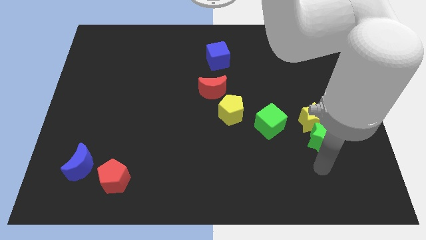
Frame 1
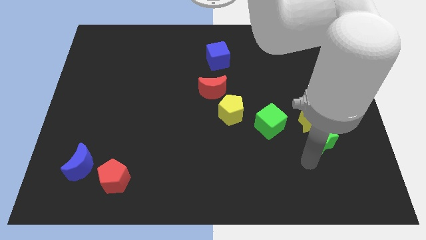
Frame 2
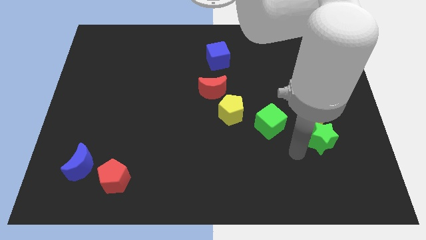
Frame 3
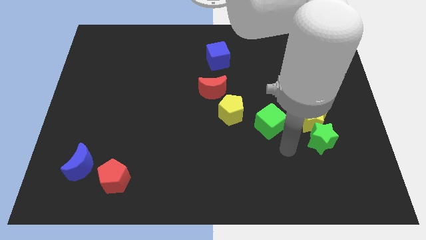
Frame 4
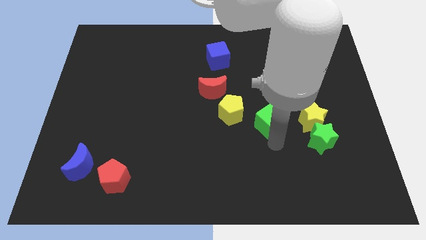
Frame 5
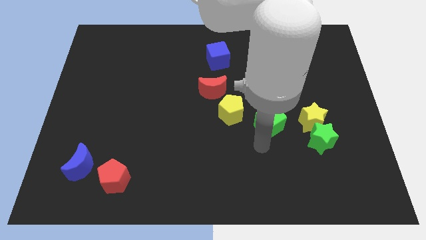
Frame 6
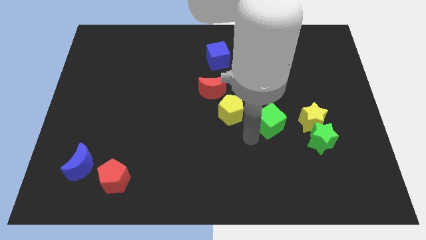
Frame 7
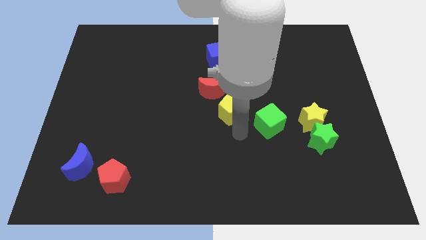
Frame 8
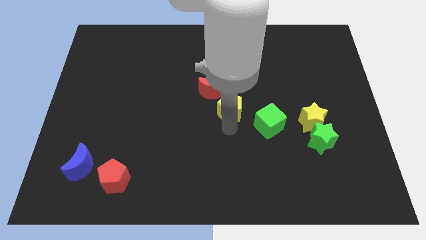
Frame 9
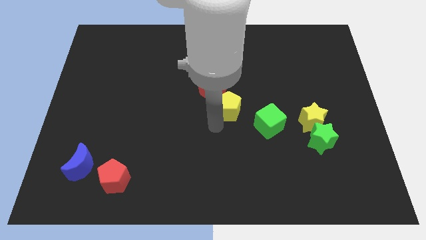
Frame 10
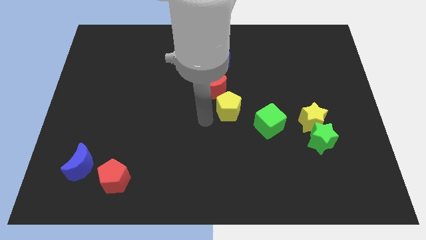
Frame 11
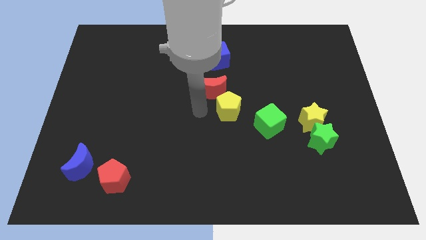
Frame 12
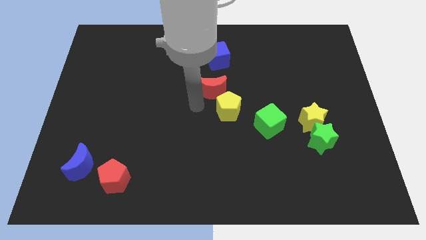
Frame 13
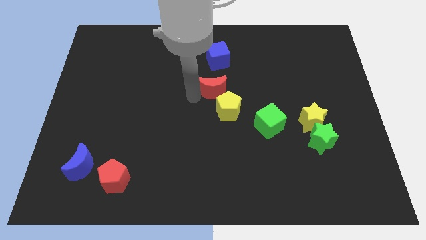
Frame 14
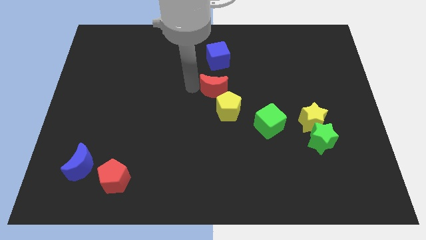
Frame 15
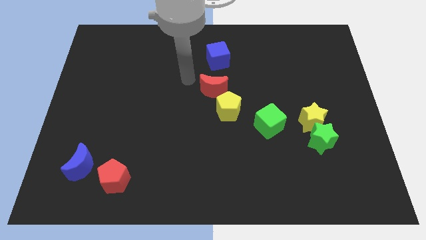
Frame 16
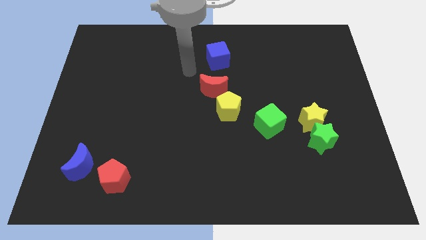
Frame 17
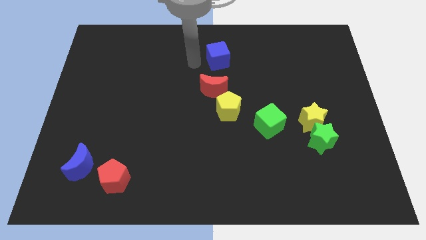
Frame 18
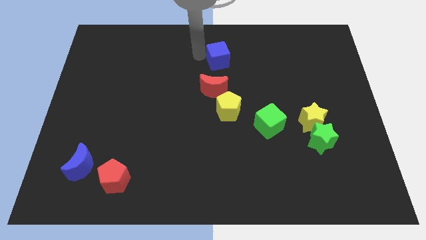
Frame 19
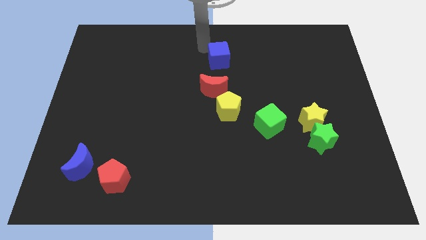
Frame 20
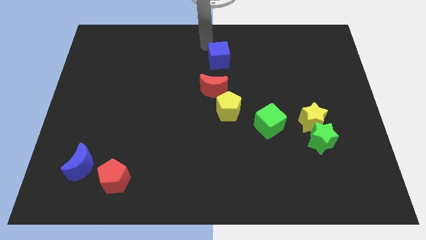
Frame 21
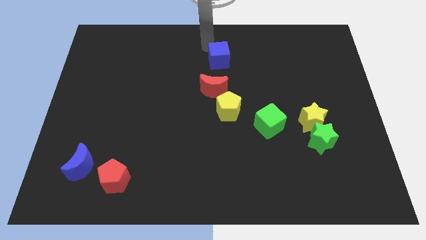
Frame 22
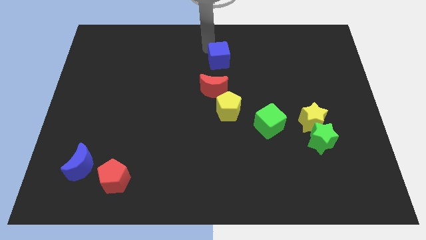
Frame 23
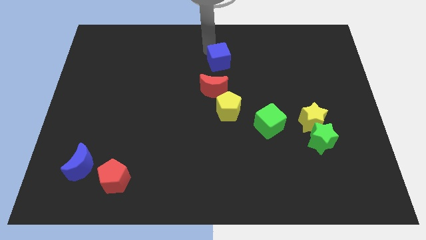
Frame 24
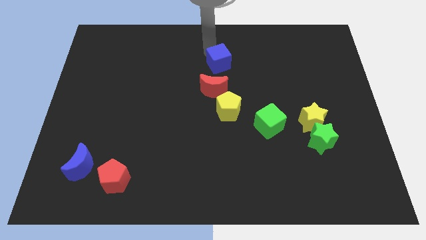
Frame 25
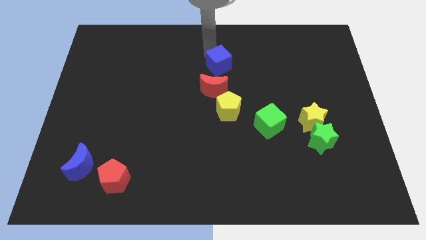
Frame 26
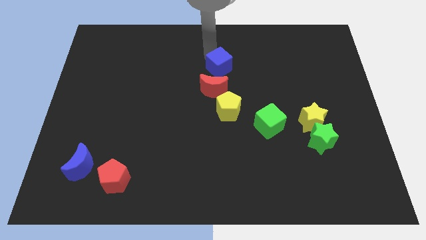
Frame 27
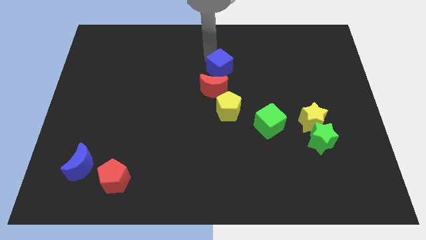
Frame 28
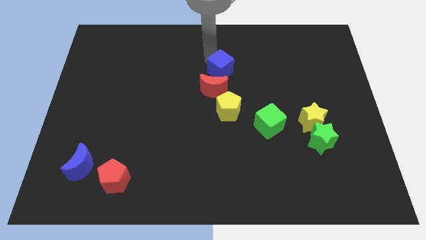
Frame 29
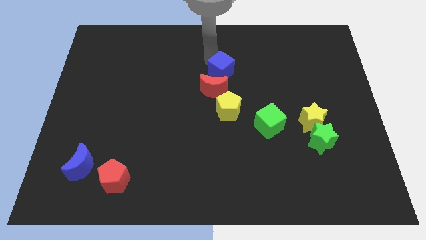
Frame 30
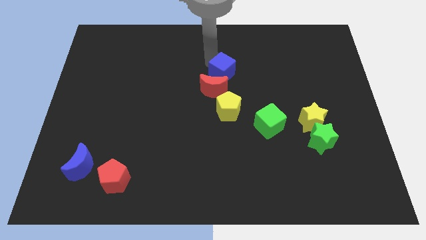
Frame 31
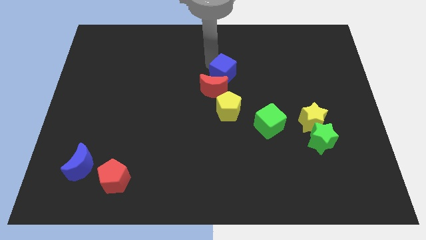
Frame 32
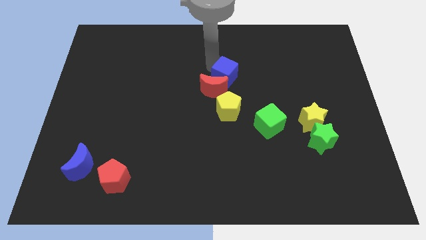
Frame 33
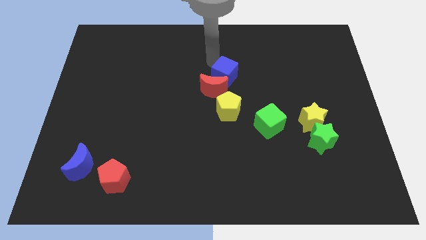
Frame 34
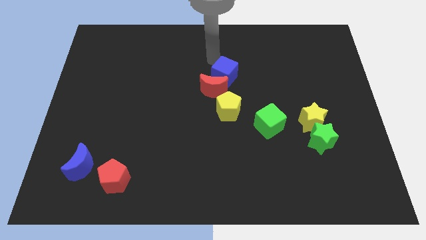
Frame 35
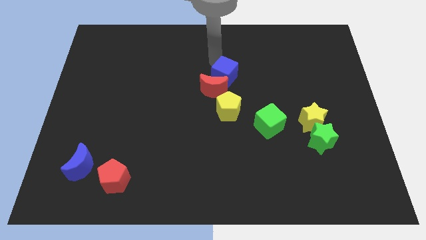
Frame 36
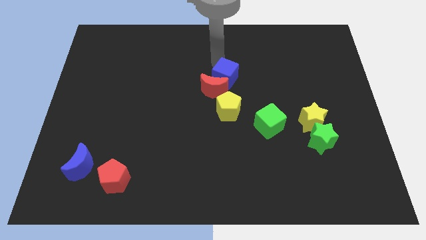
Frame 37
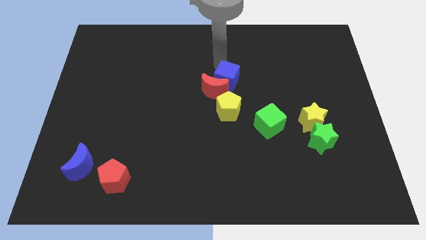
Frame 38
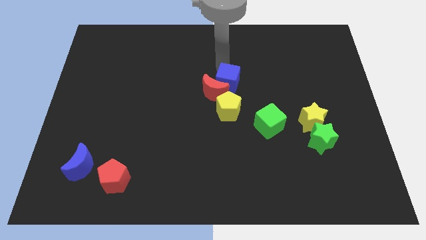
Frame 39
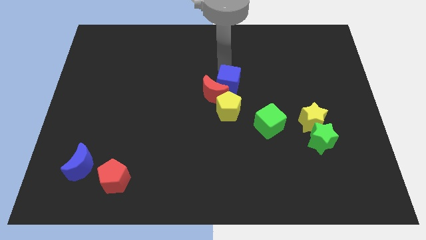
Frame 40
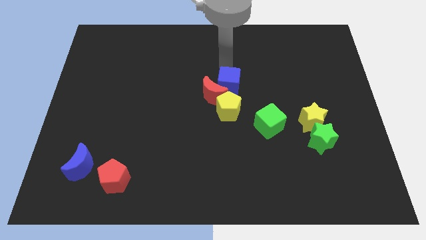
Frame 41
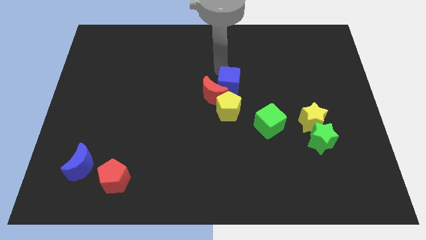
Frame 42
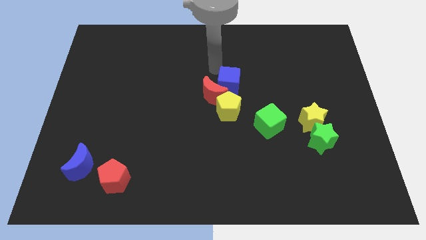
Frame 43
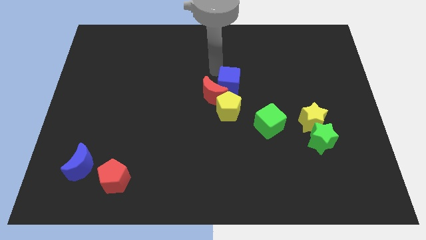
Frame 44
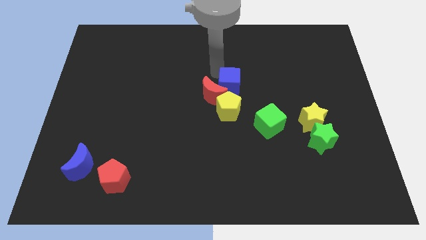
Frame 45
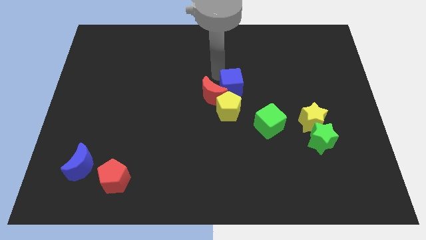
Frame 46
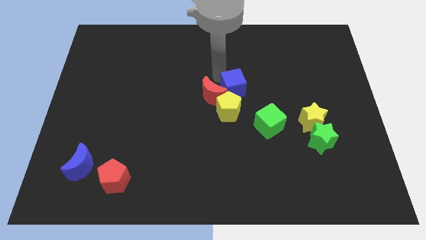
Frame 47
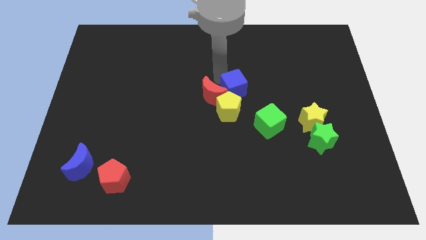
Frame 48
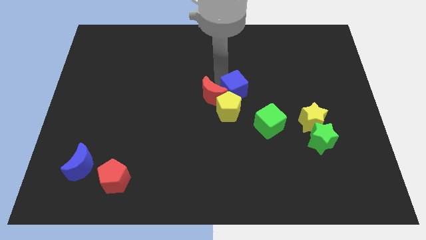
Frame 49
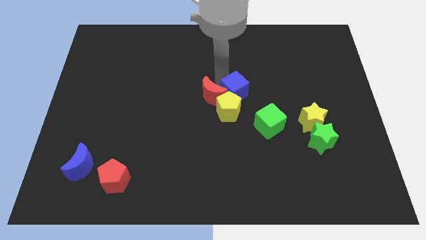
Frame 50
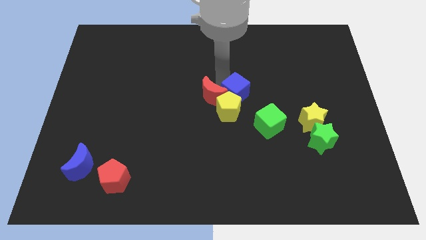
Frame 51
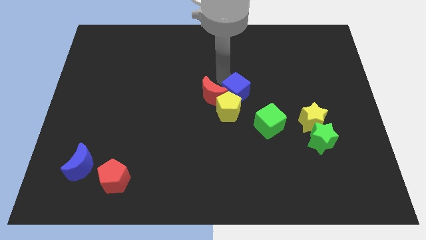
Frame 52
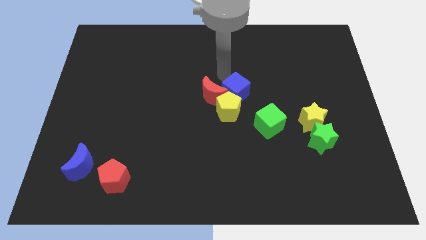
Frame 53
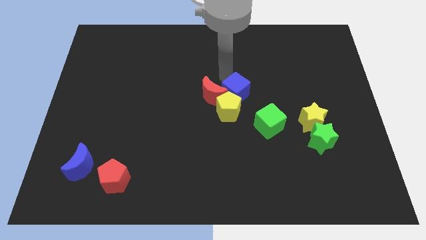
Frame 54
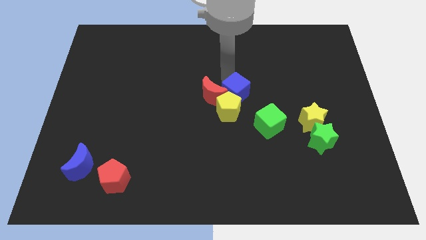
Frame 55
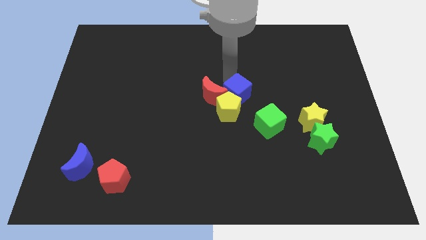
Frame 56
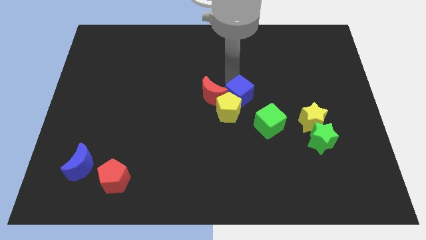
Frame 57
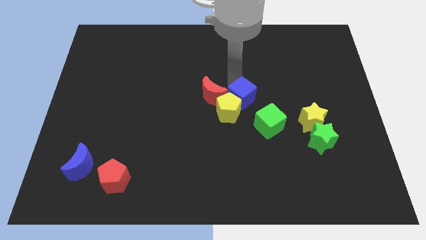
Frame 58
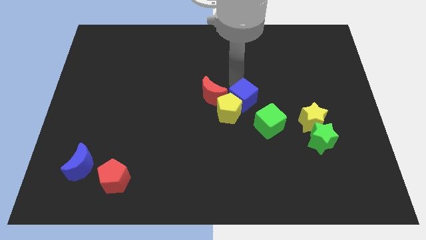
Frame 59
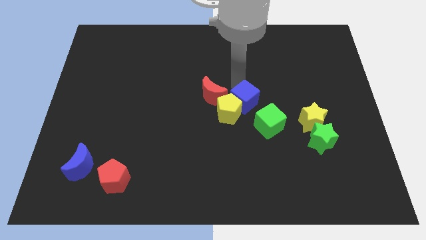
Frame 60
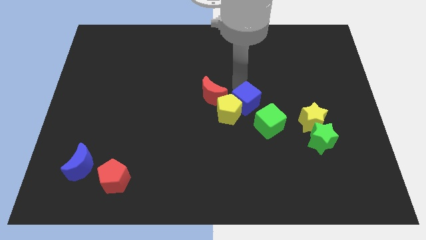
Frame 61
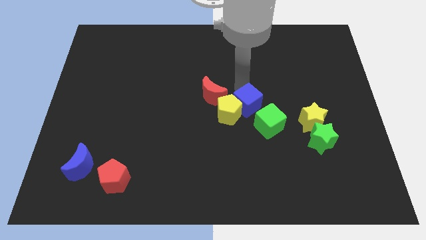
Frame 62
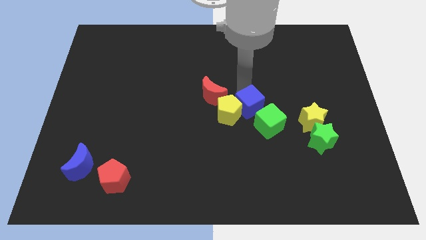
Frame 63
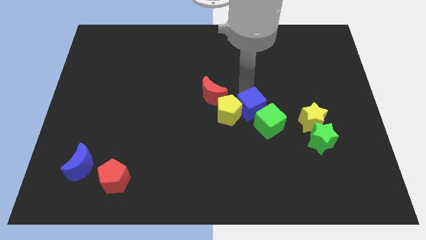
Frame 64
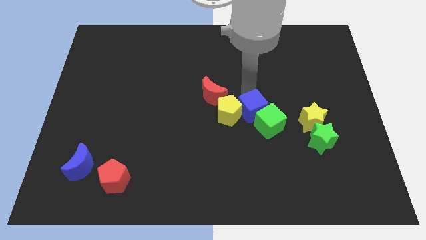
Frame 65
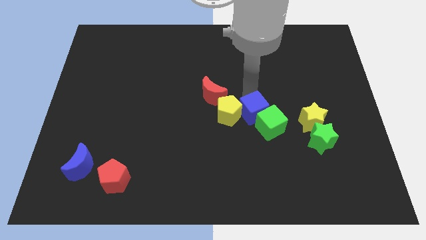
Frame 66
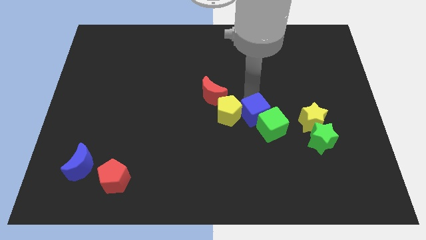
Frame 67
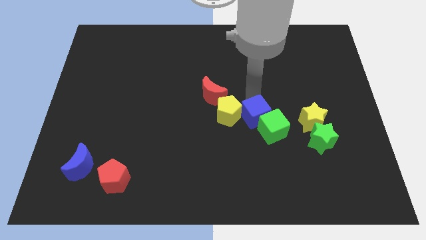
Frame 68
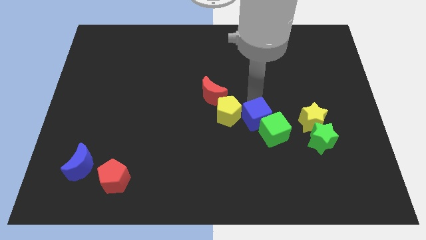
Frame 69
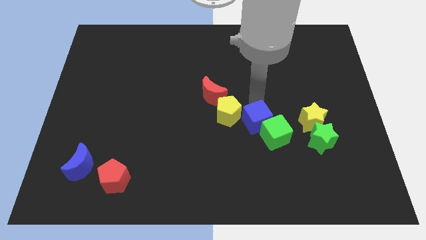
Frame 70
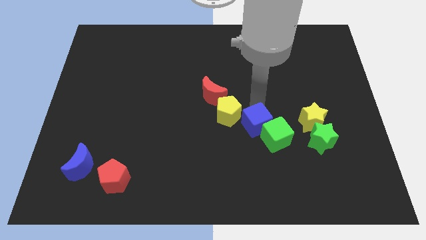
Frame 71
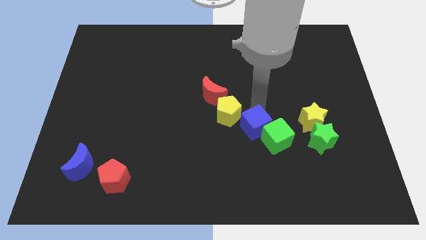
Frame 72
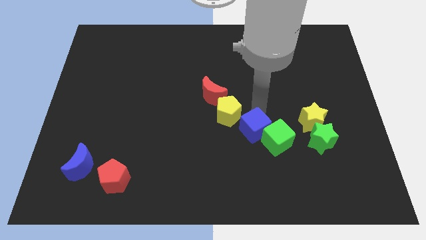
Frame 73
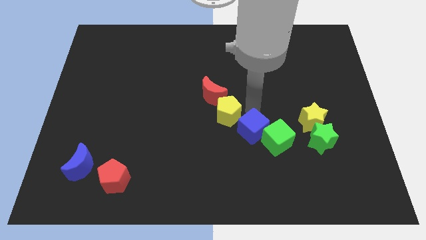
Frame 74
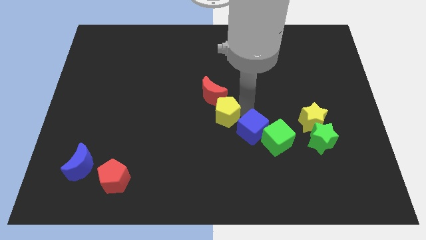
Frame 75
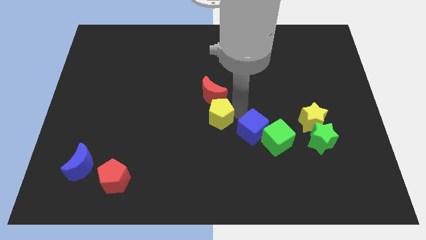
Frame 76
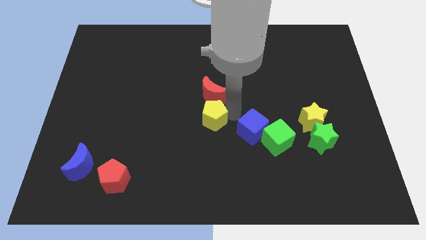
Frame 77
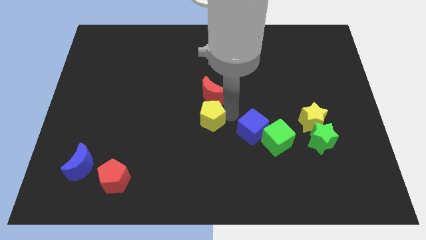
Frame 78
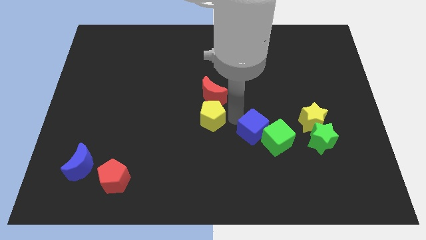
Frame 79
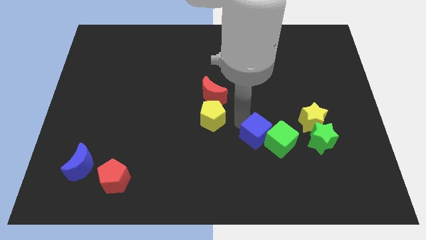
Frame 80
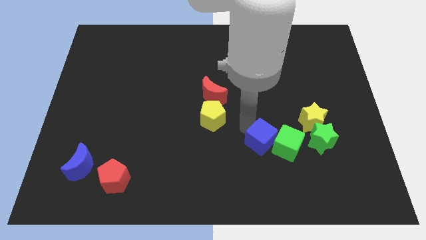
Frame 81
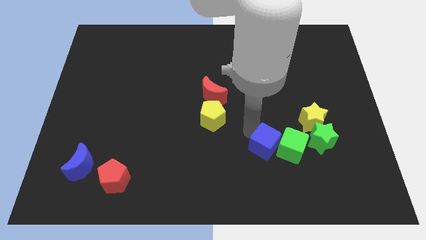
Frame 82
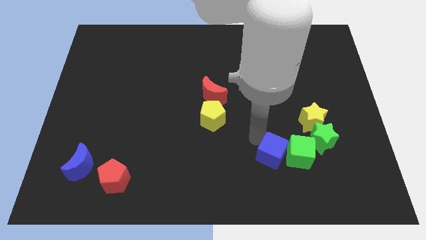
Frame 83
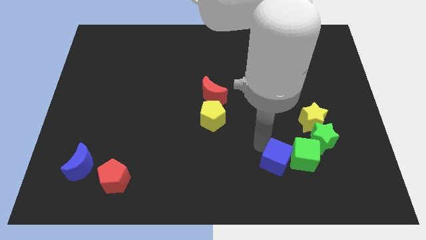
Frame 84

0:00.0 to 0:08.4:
slide the blue cube diagonally down and to the left of the green star
